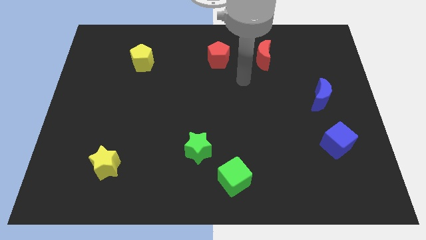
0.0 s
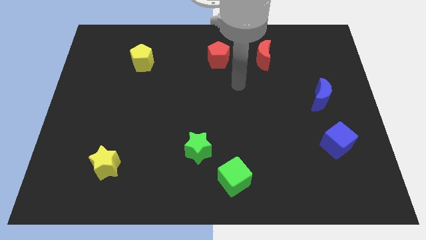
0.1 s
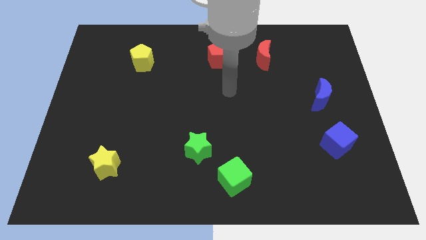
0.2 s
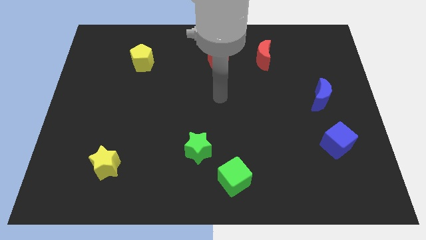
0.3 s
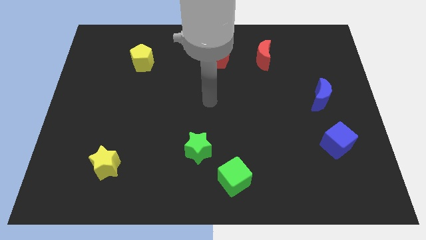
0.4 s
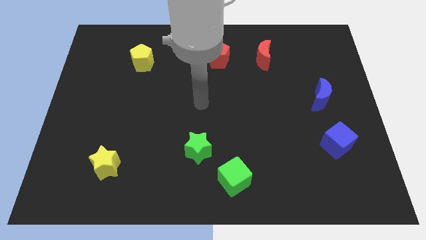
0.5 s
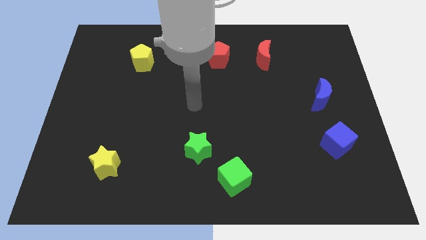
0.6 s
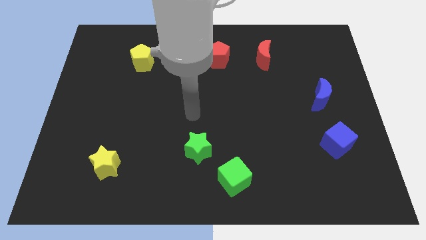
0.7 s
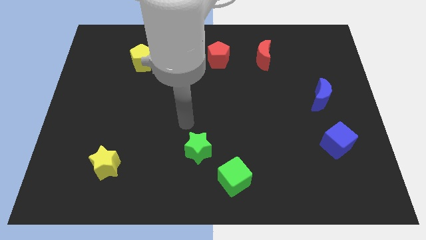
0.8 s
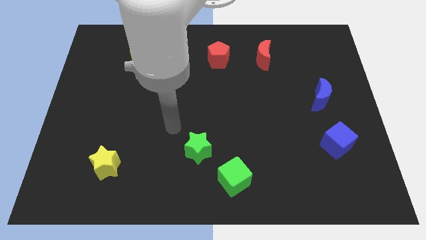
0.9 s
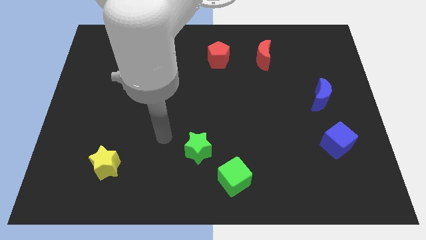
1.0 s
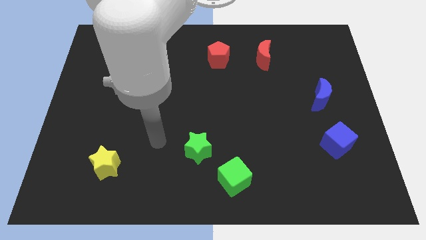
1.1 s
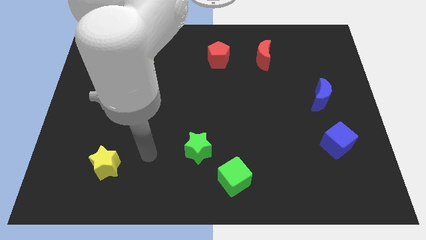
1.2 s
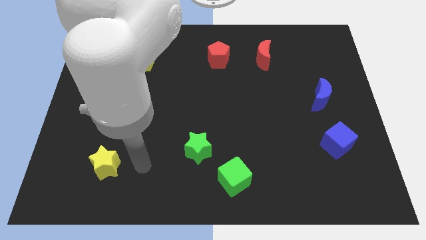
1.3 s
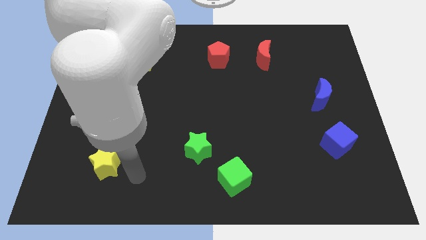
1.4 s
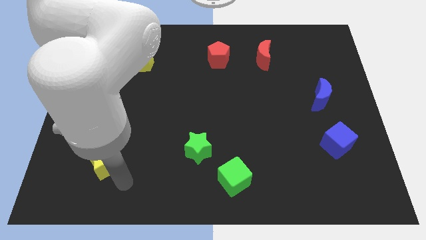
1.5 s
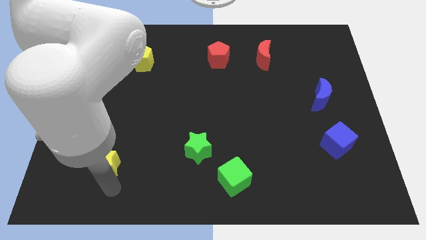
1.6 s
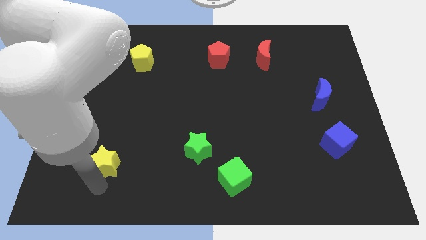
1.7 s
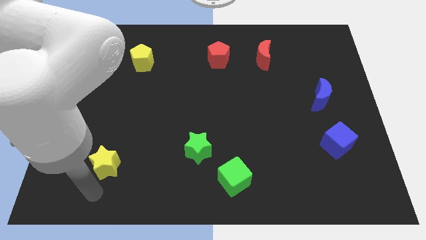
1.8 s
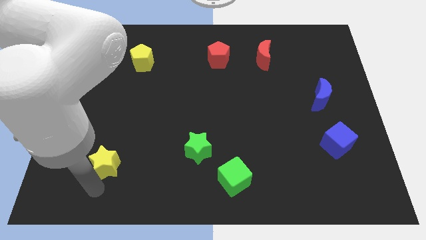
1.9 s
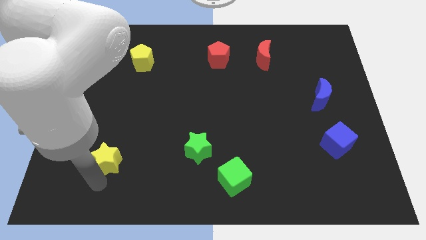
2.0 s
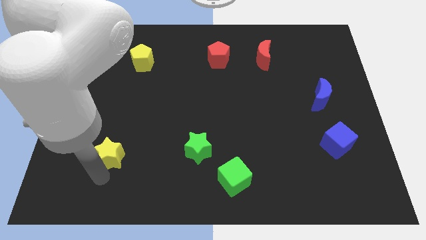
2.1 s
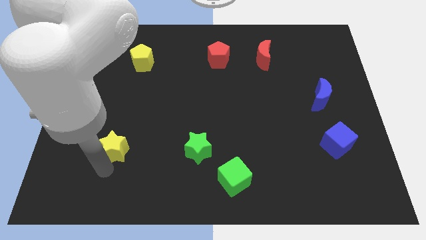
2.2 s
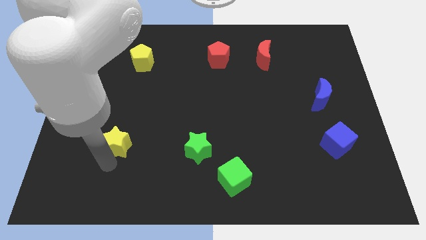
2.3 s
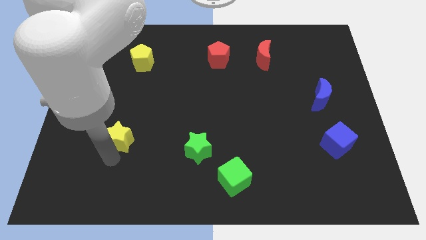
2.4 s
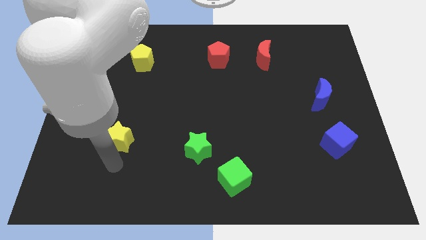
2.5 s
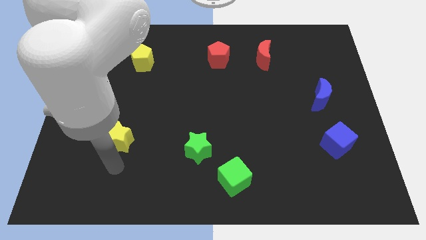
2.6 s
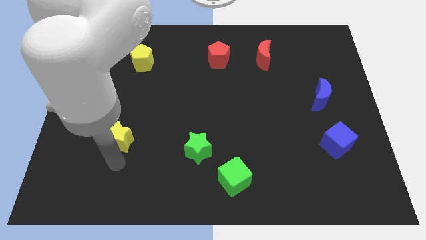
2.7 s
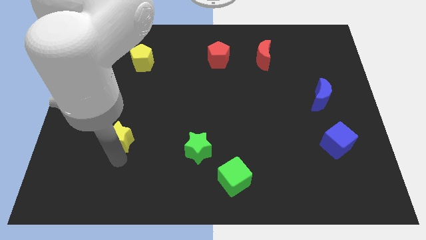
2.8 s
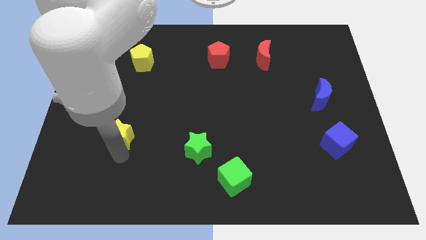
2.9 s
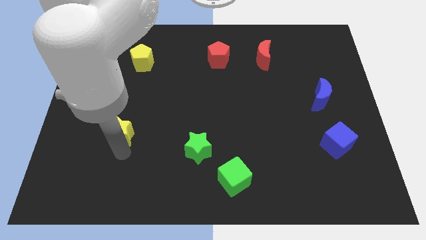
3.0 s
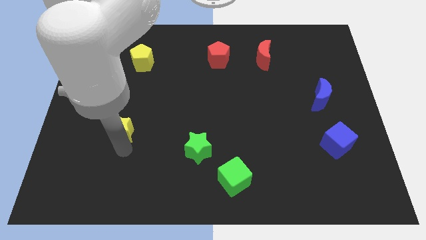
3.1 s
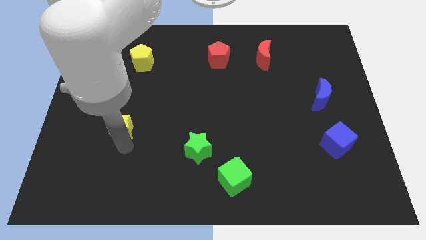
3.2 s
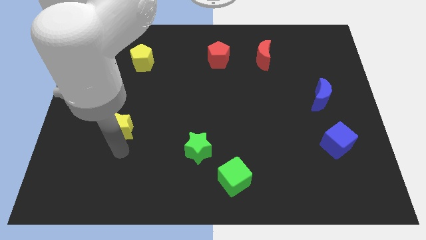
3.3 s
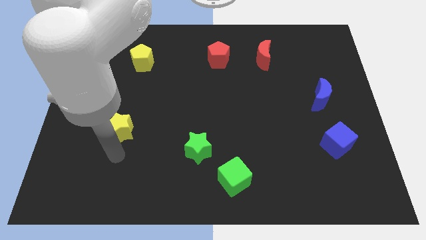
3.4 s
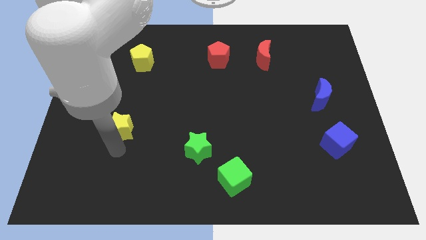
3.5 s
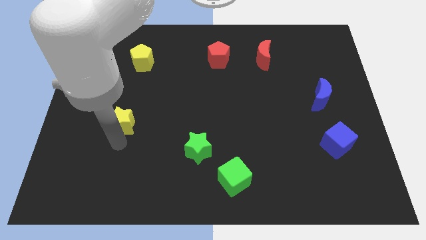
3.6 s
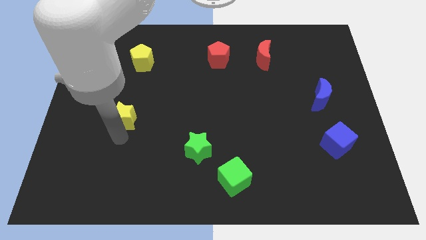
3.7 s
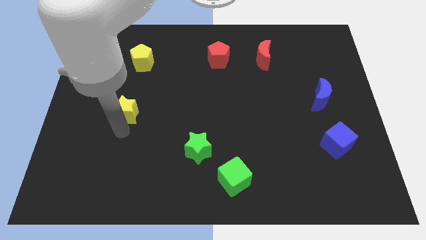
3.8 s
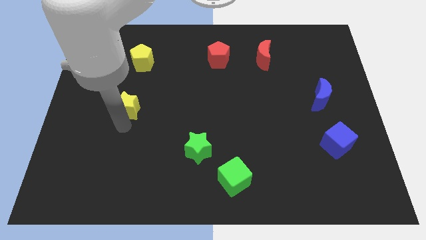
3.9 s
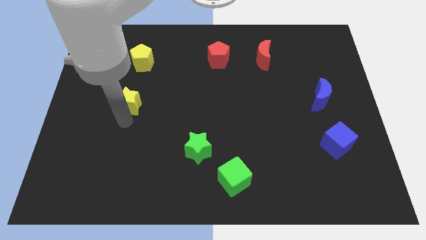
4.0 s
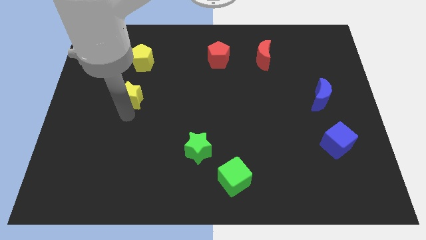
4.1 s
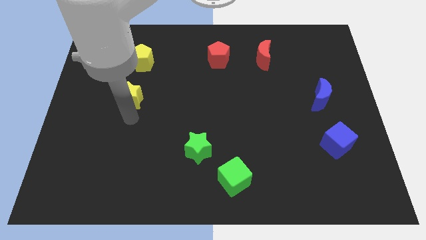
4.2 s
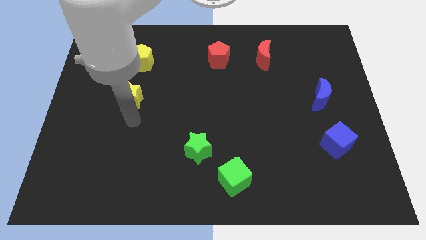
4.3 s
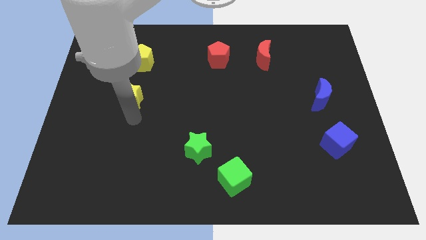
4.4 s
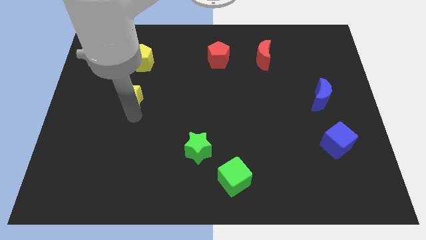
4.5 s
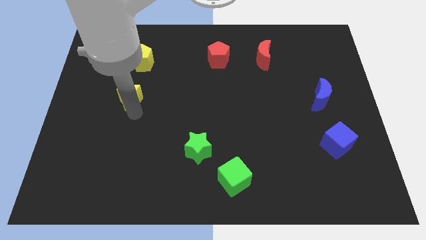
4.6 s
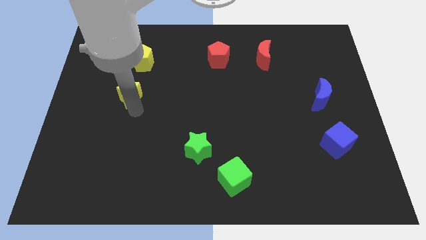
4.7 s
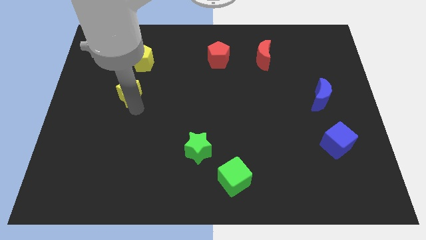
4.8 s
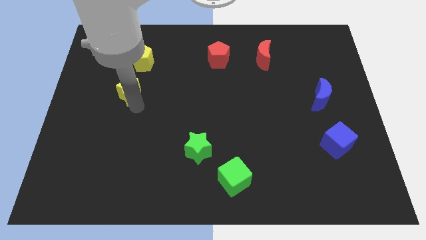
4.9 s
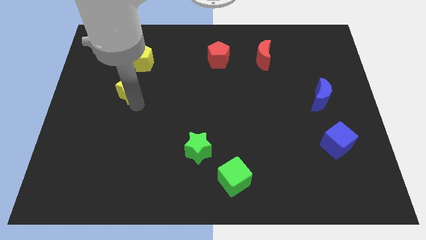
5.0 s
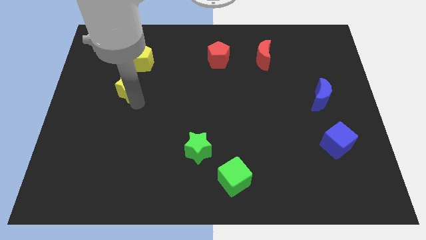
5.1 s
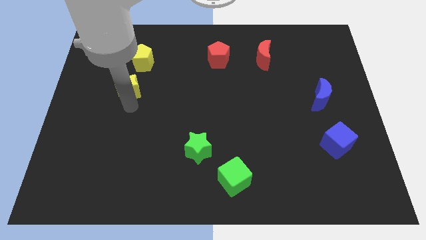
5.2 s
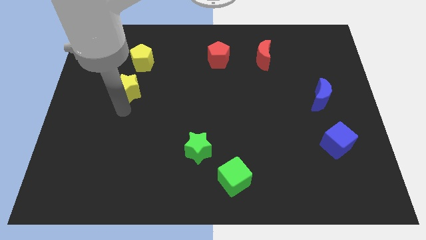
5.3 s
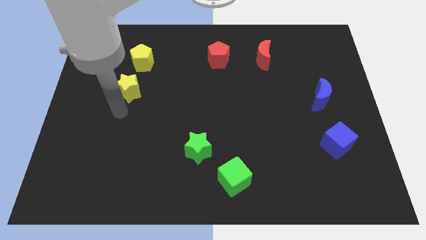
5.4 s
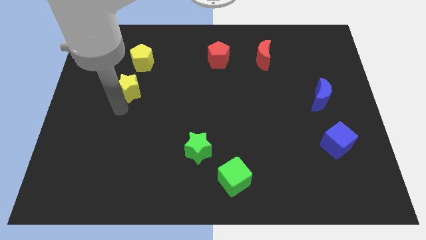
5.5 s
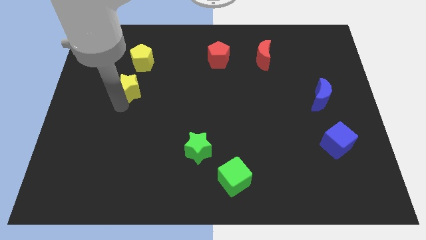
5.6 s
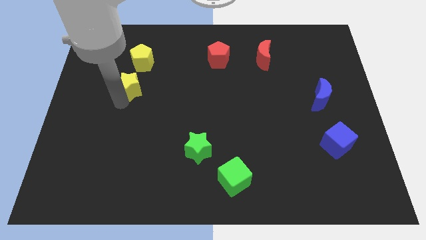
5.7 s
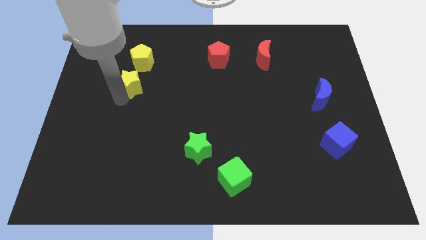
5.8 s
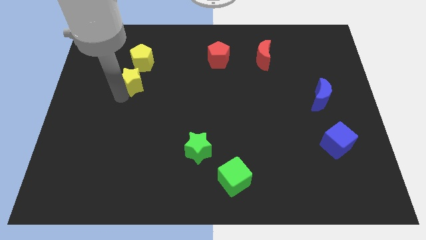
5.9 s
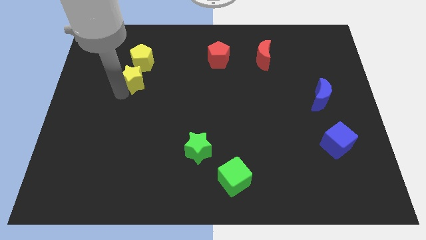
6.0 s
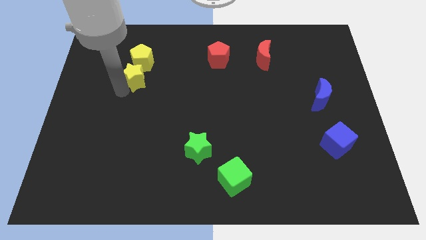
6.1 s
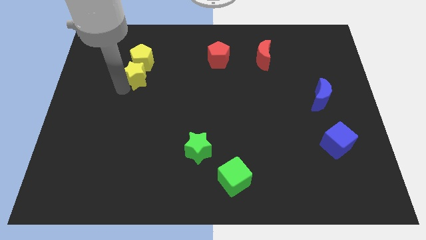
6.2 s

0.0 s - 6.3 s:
push the yellow star next to the yellow pentagon

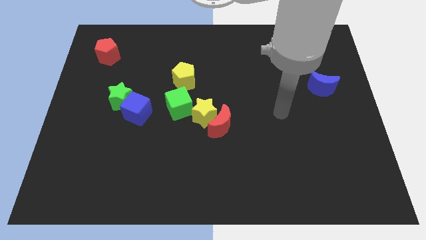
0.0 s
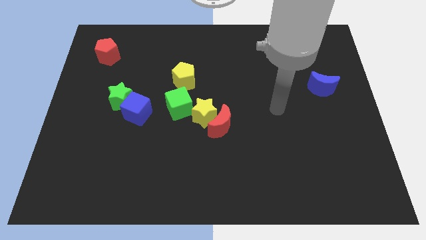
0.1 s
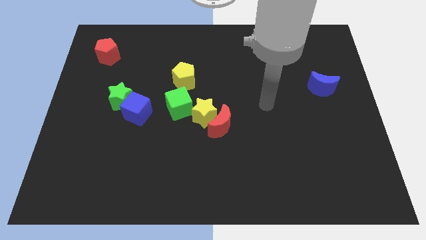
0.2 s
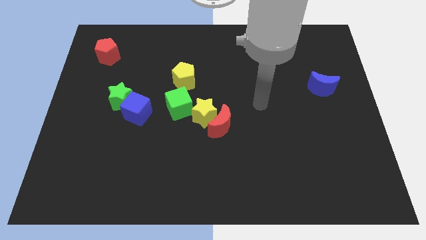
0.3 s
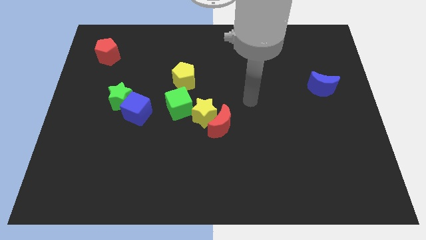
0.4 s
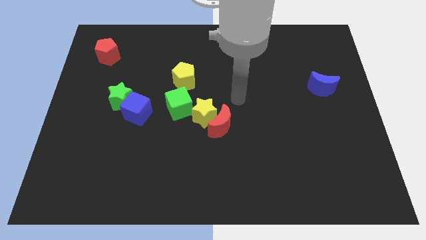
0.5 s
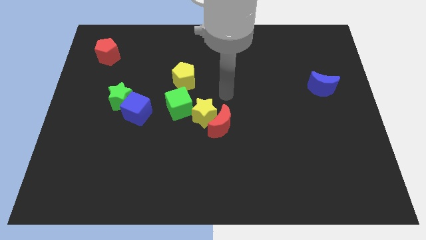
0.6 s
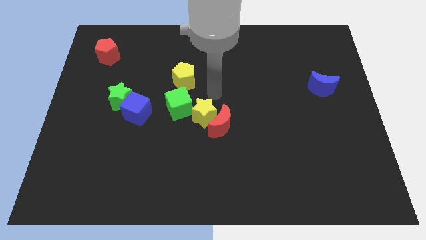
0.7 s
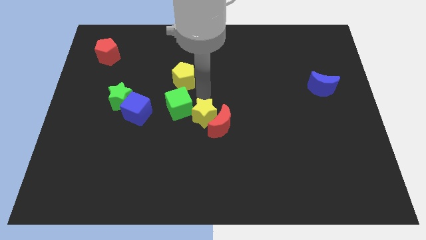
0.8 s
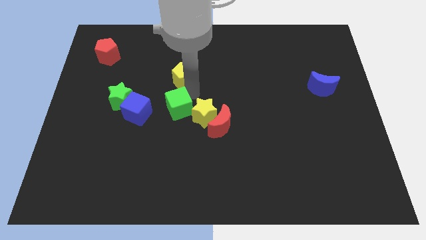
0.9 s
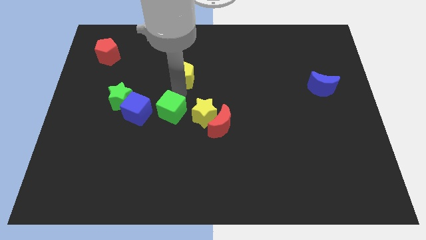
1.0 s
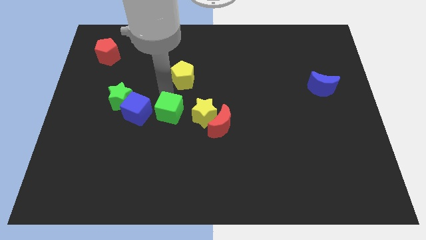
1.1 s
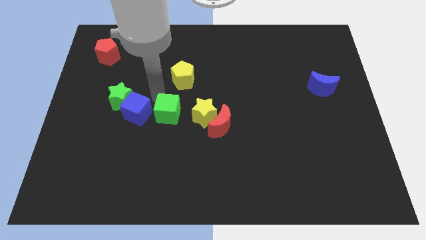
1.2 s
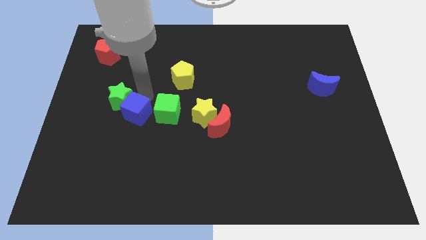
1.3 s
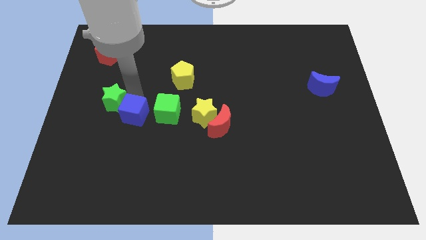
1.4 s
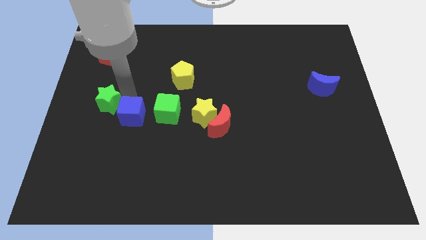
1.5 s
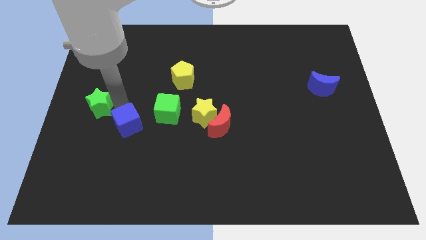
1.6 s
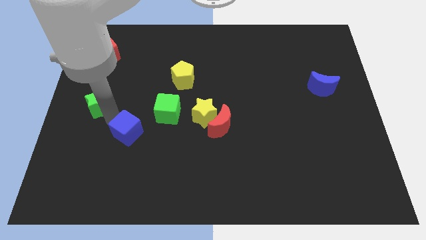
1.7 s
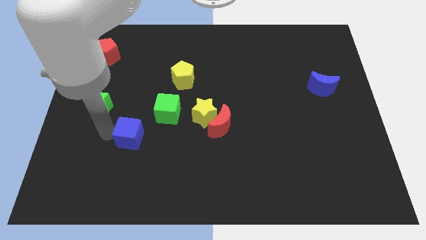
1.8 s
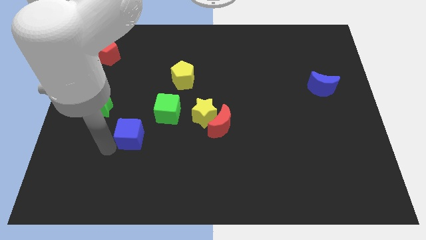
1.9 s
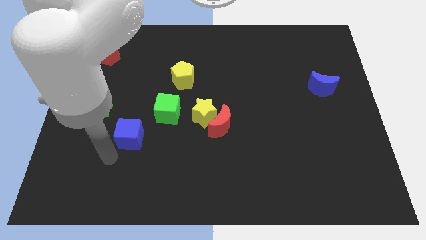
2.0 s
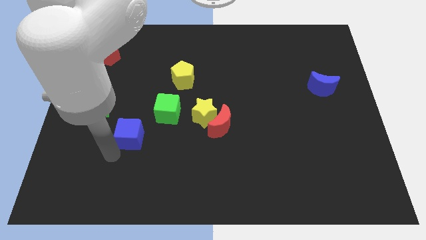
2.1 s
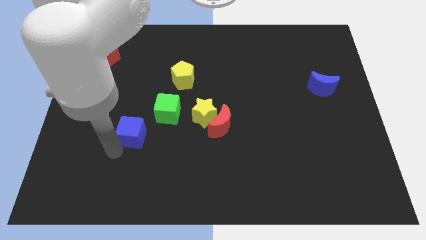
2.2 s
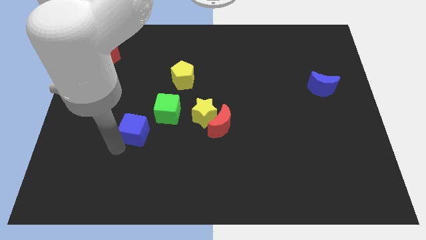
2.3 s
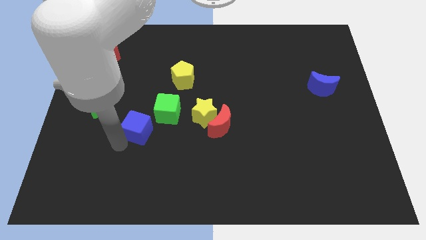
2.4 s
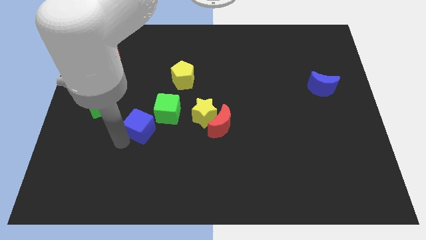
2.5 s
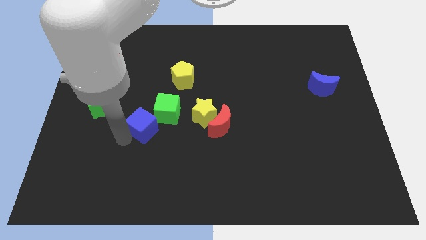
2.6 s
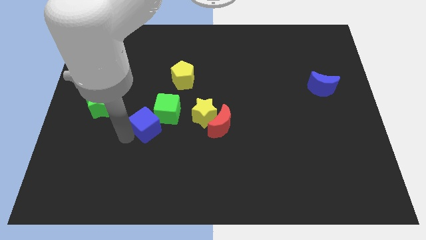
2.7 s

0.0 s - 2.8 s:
put the blue cube close to the green cube
